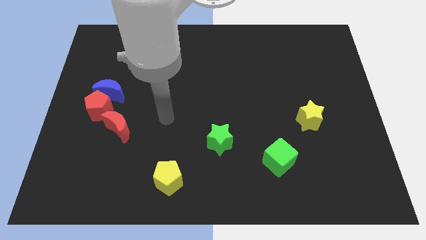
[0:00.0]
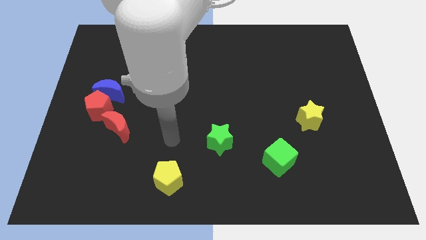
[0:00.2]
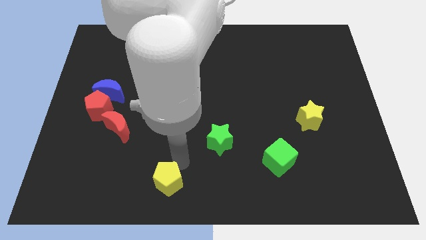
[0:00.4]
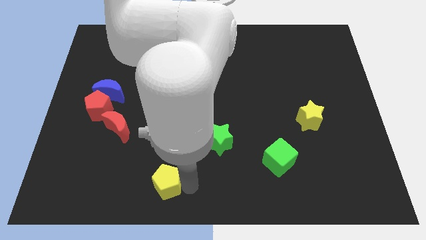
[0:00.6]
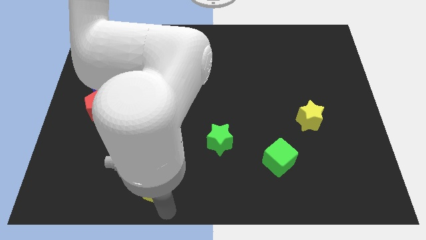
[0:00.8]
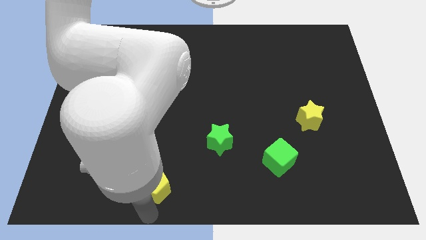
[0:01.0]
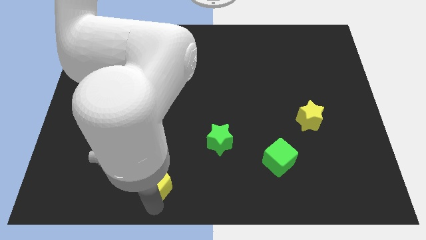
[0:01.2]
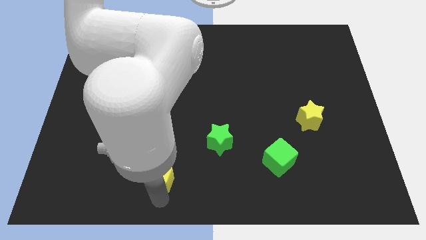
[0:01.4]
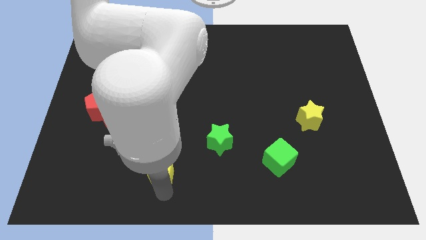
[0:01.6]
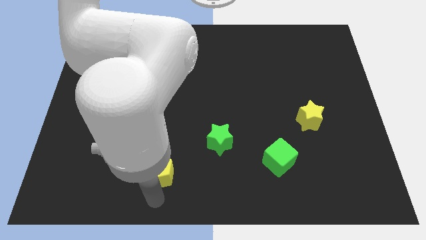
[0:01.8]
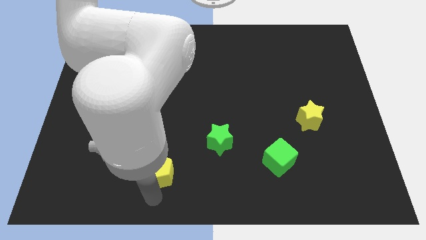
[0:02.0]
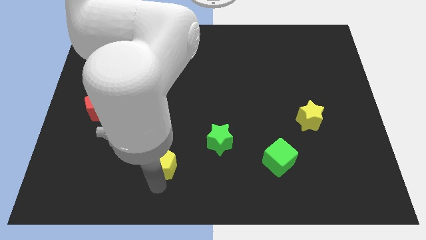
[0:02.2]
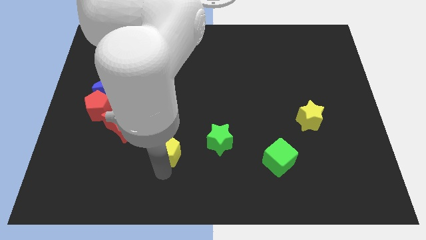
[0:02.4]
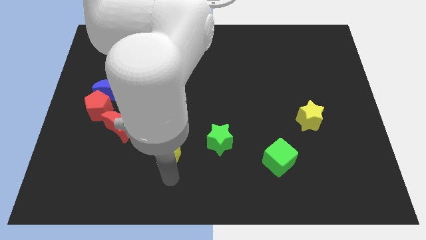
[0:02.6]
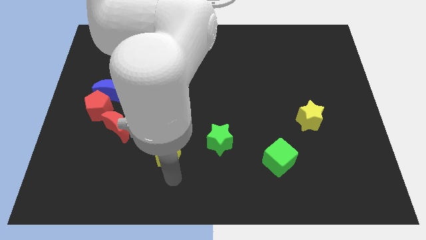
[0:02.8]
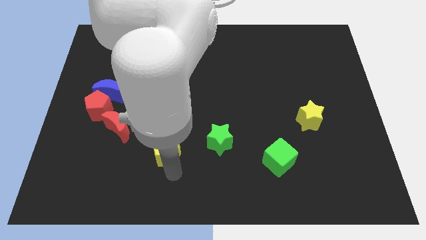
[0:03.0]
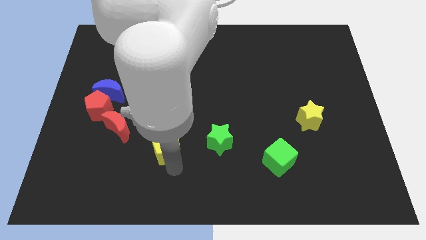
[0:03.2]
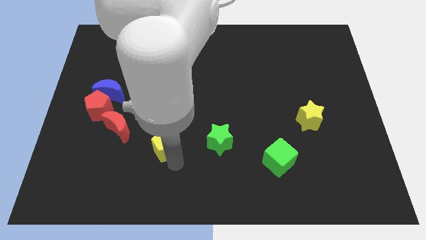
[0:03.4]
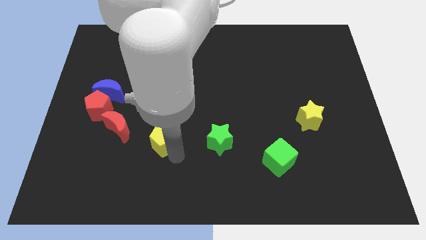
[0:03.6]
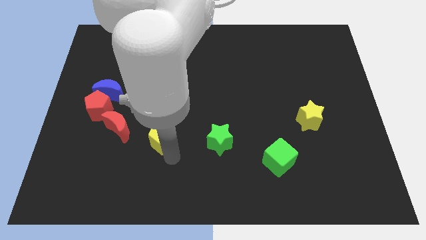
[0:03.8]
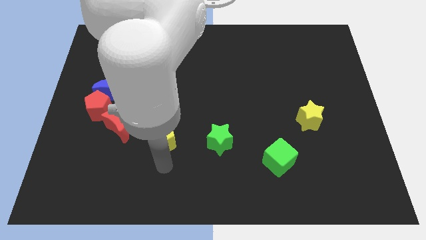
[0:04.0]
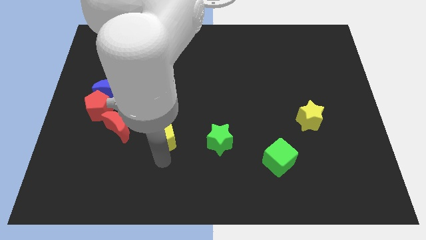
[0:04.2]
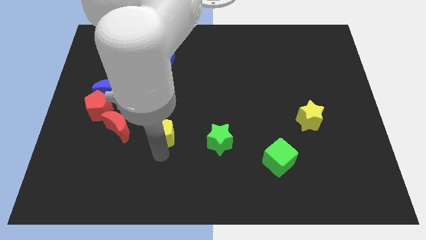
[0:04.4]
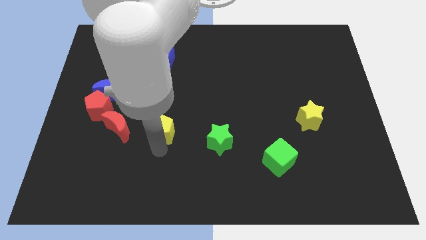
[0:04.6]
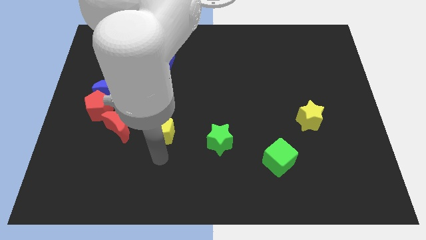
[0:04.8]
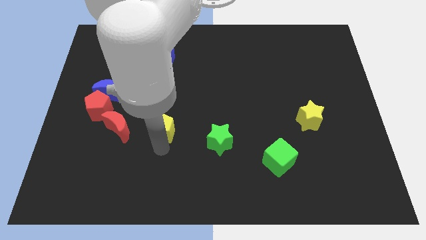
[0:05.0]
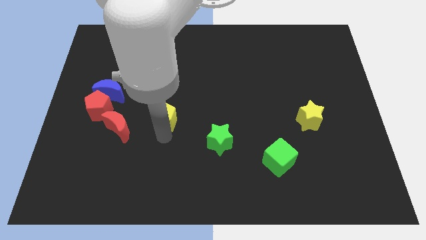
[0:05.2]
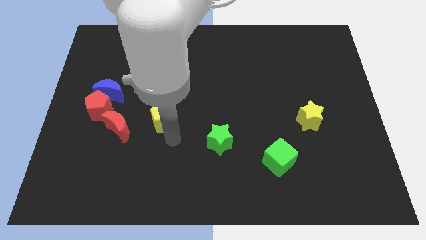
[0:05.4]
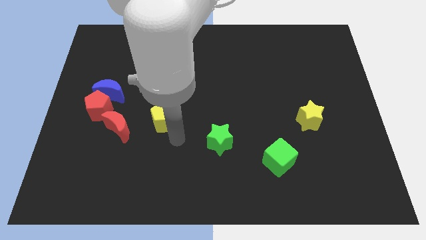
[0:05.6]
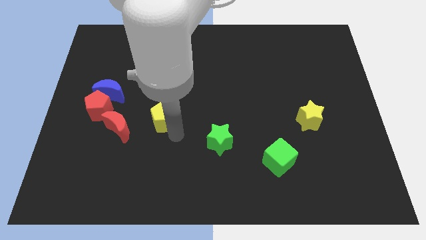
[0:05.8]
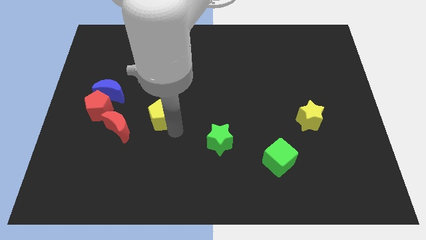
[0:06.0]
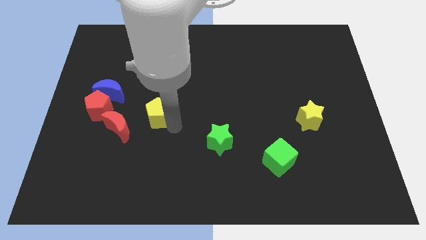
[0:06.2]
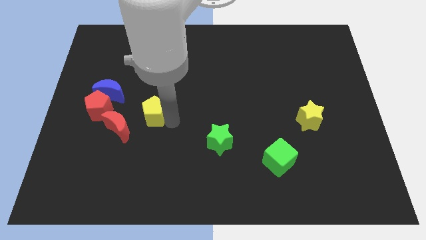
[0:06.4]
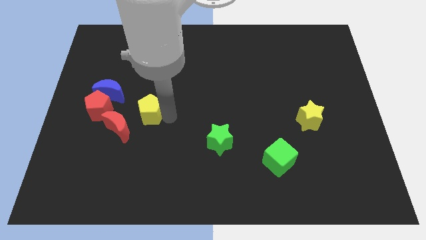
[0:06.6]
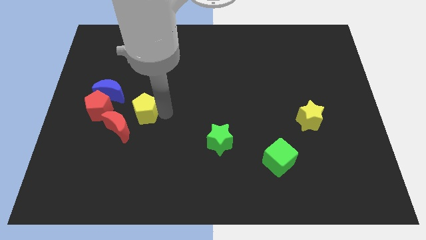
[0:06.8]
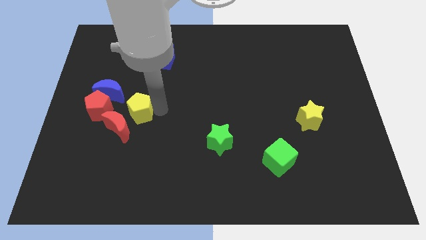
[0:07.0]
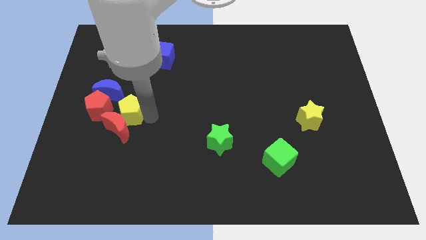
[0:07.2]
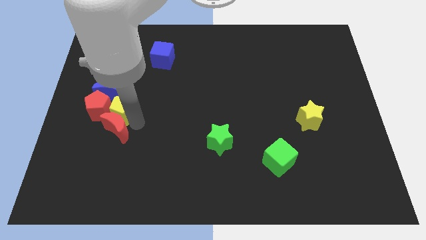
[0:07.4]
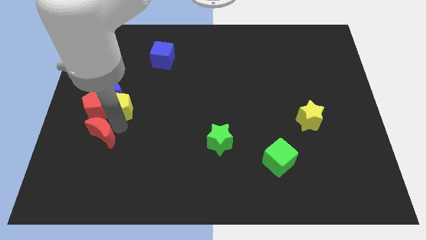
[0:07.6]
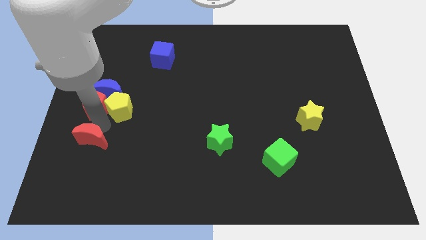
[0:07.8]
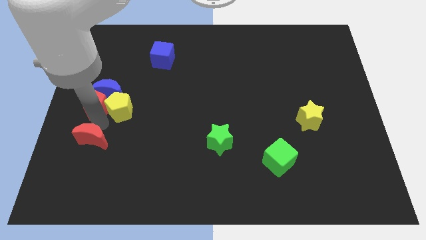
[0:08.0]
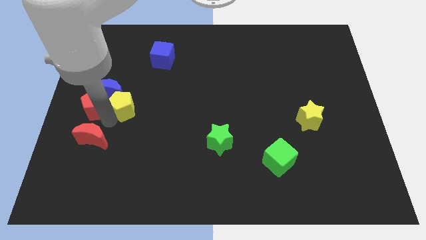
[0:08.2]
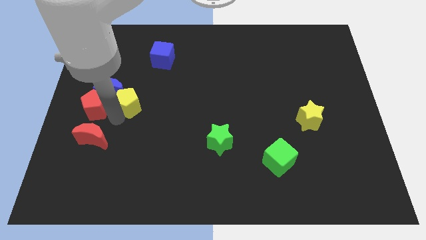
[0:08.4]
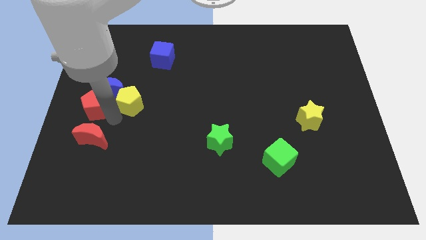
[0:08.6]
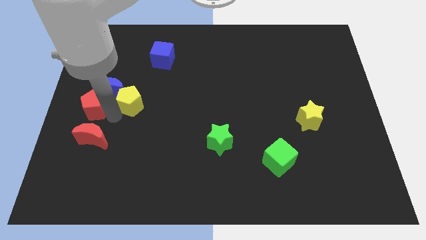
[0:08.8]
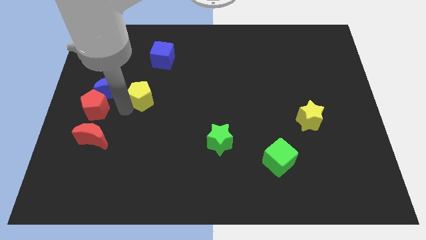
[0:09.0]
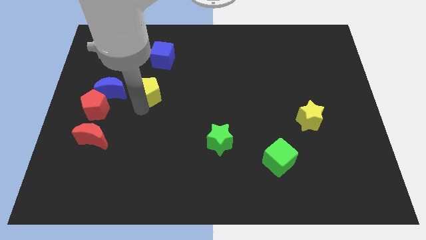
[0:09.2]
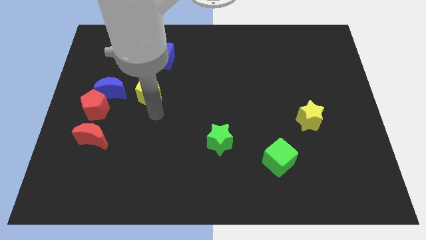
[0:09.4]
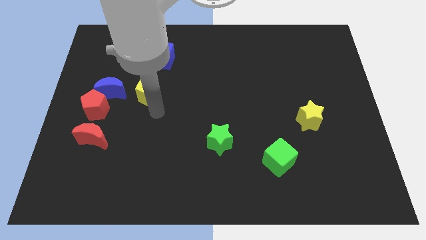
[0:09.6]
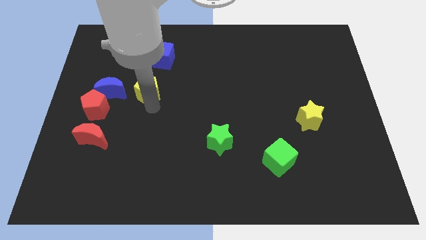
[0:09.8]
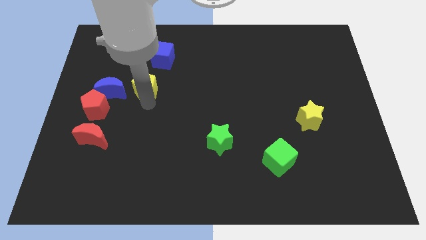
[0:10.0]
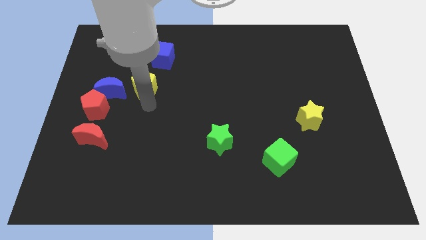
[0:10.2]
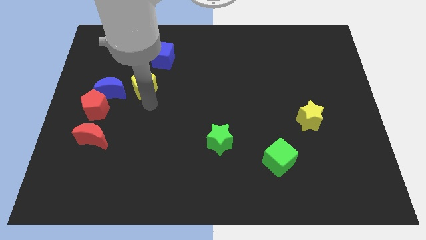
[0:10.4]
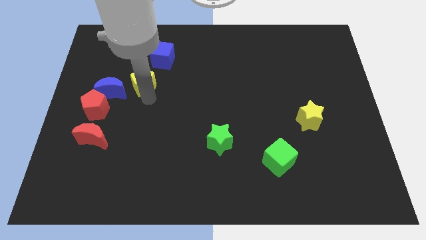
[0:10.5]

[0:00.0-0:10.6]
slide the yellow pentagon diagonally down and to the left of the blue cube

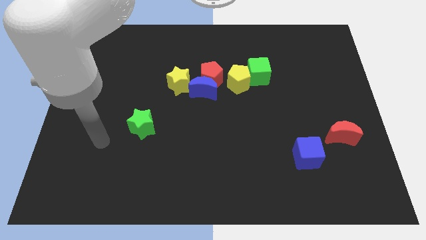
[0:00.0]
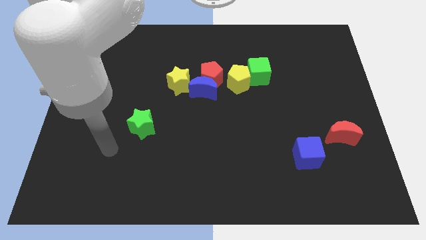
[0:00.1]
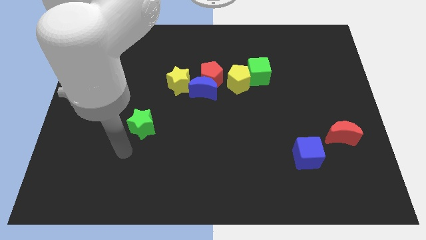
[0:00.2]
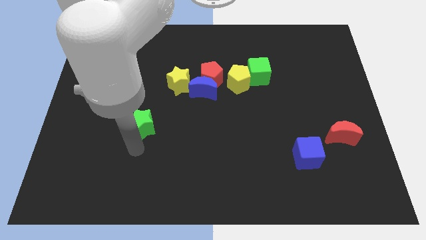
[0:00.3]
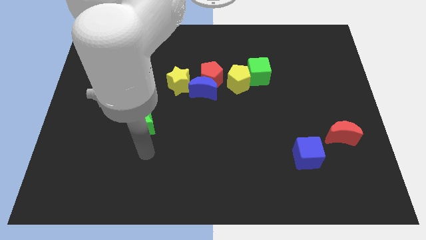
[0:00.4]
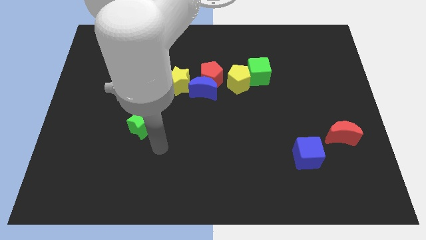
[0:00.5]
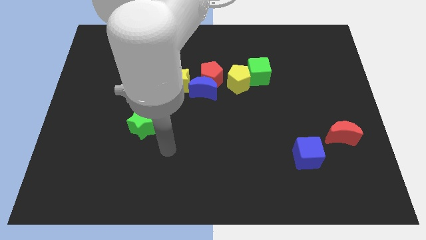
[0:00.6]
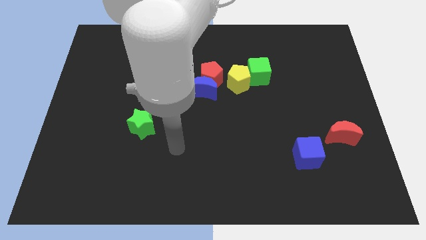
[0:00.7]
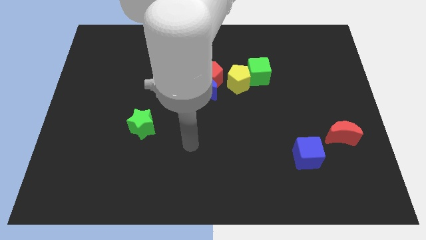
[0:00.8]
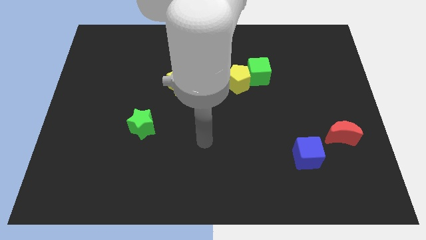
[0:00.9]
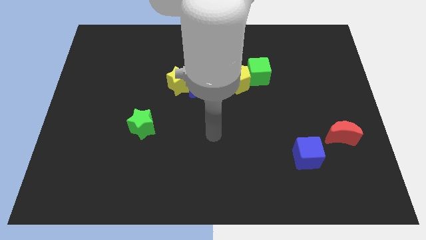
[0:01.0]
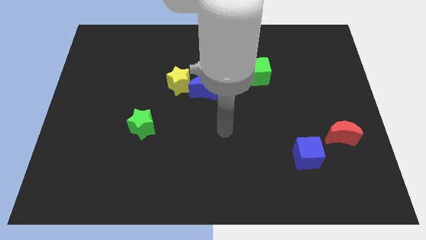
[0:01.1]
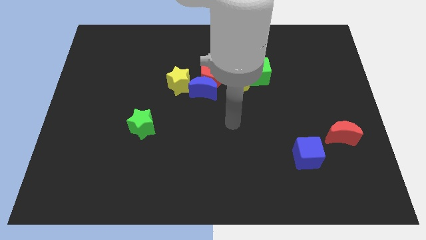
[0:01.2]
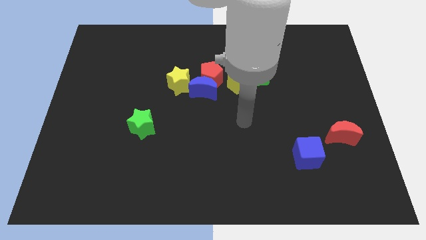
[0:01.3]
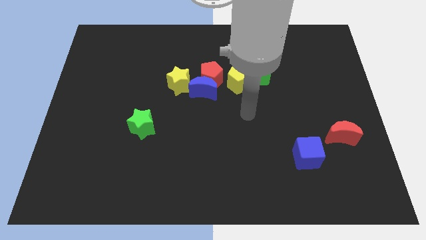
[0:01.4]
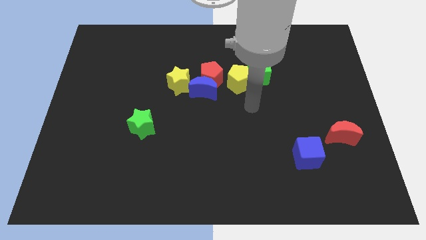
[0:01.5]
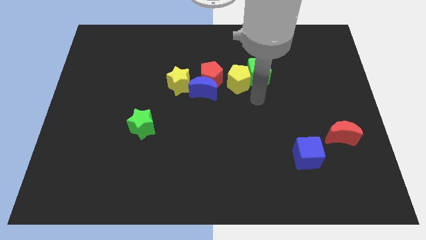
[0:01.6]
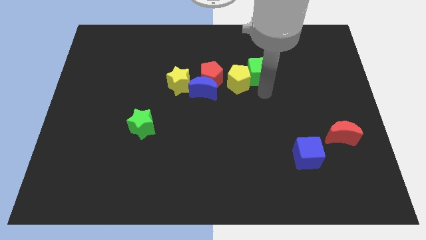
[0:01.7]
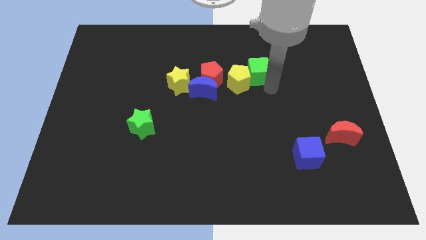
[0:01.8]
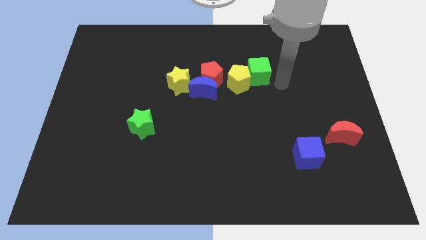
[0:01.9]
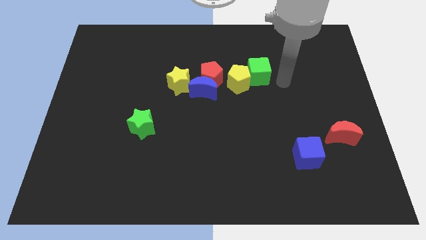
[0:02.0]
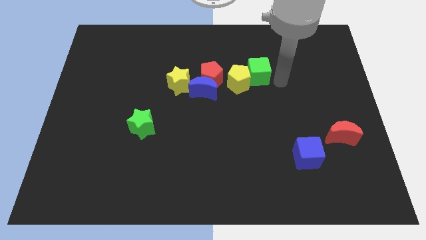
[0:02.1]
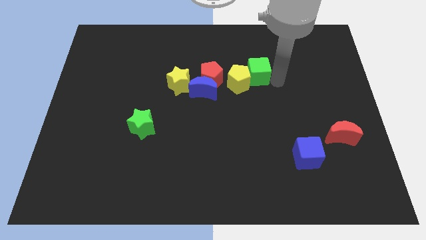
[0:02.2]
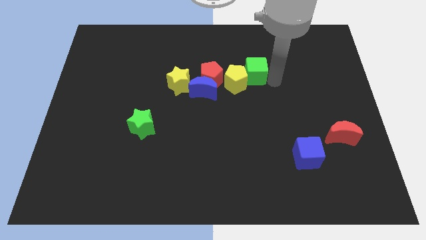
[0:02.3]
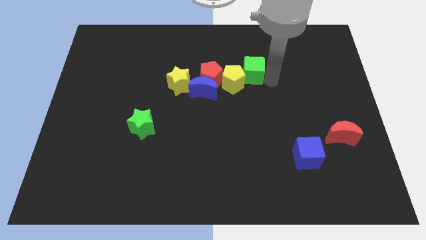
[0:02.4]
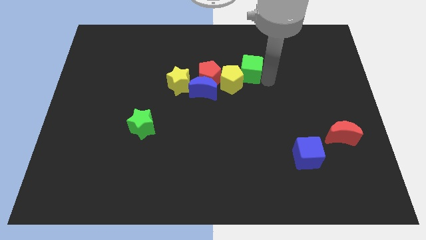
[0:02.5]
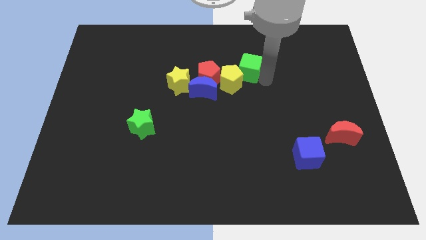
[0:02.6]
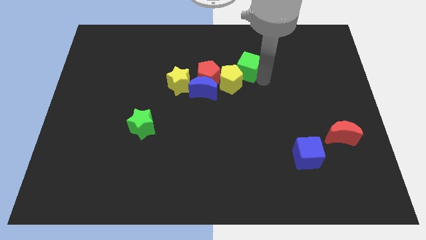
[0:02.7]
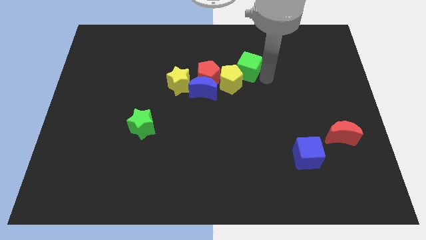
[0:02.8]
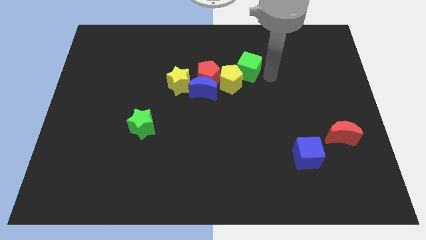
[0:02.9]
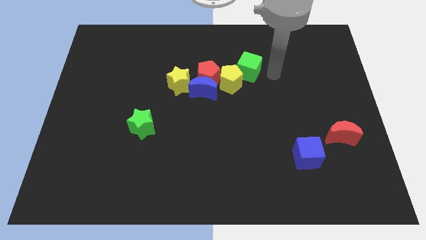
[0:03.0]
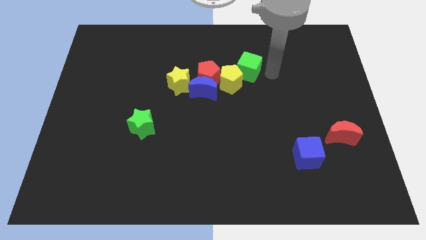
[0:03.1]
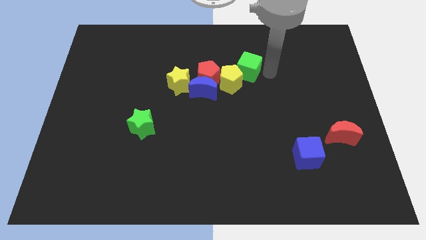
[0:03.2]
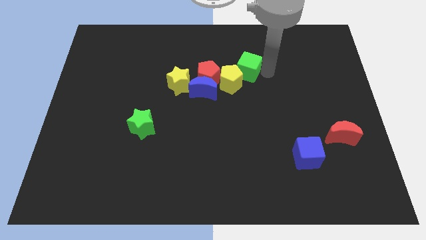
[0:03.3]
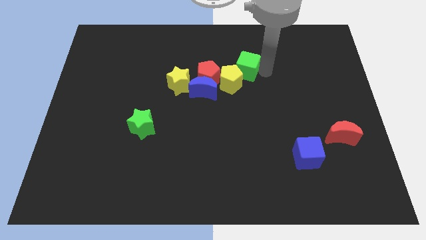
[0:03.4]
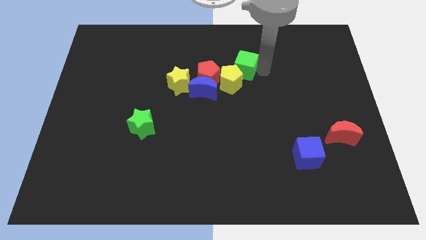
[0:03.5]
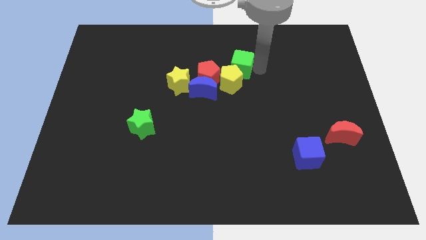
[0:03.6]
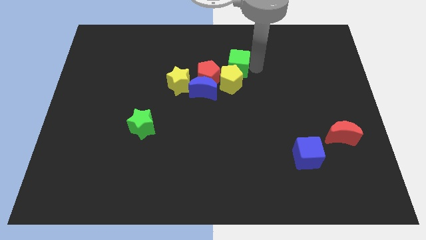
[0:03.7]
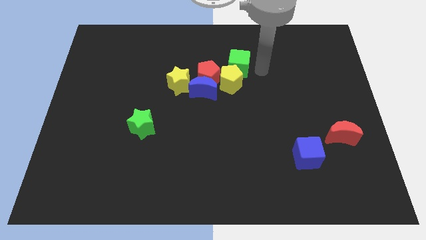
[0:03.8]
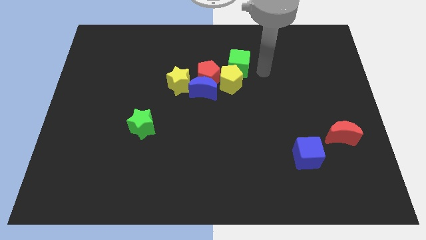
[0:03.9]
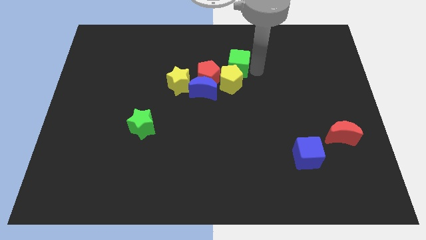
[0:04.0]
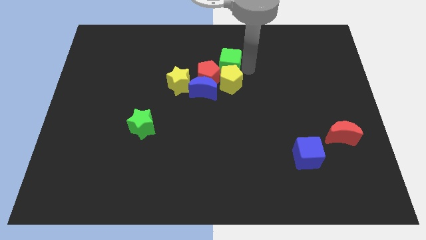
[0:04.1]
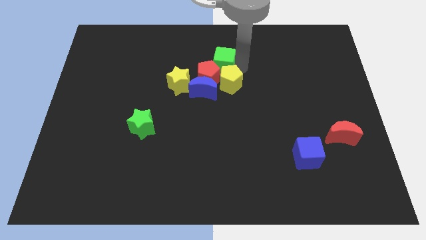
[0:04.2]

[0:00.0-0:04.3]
slide the green cube to the top side of the blue moon
